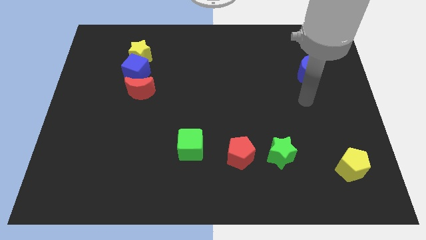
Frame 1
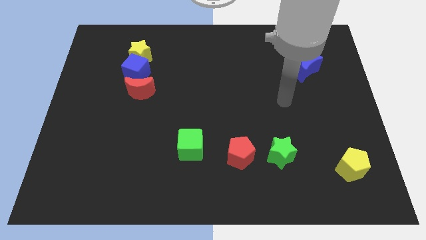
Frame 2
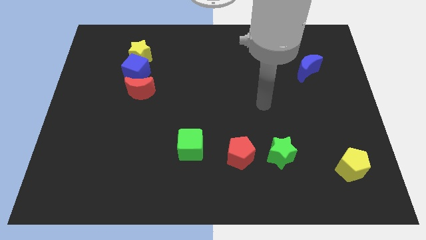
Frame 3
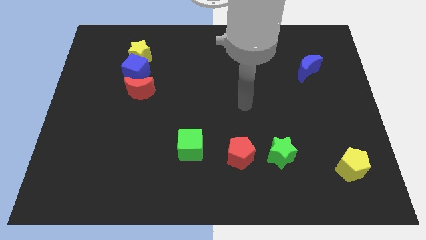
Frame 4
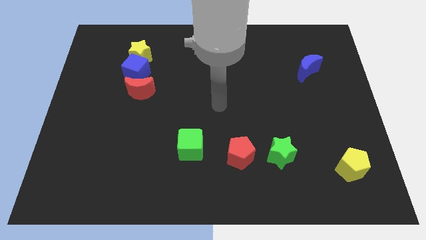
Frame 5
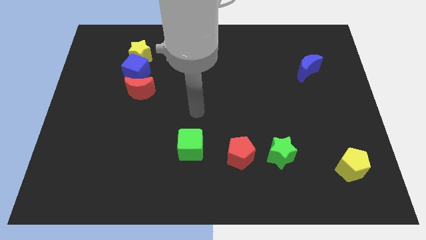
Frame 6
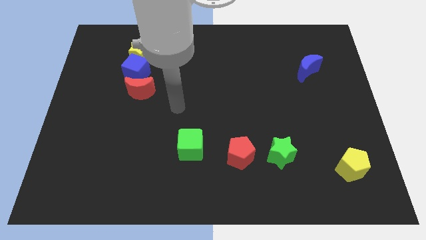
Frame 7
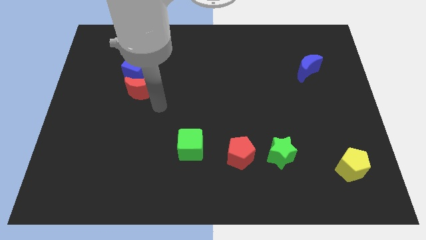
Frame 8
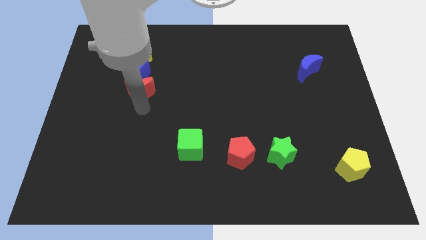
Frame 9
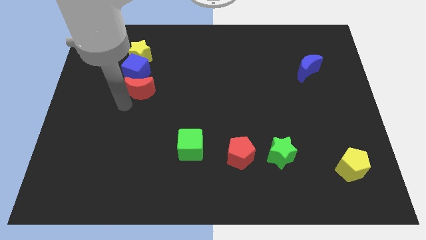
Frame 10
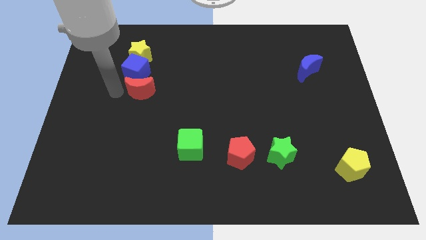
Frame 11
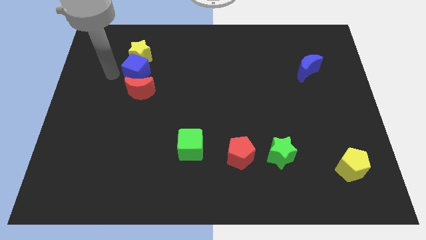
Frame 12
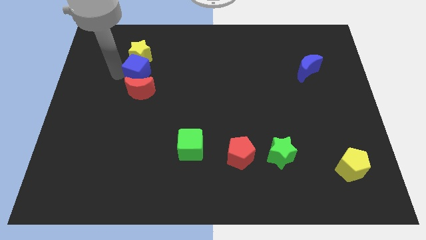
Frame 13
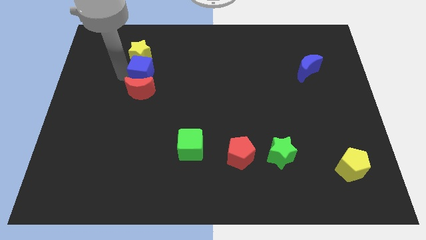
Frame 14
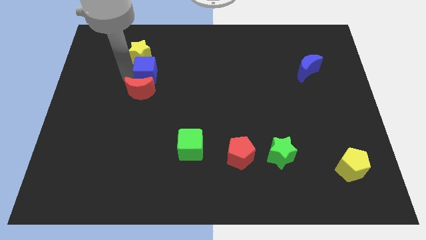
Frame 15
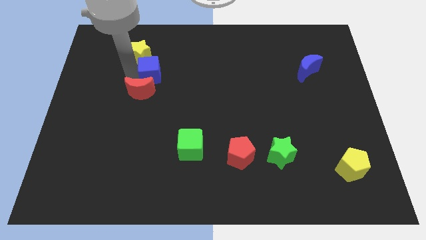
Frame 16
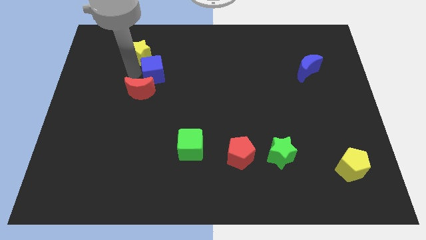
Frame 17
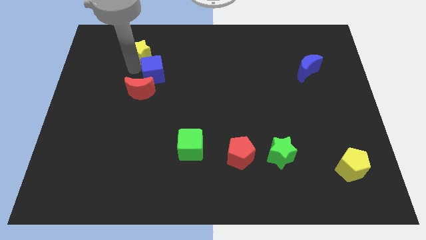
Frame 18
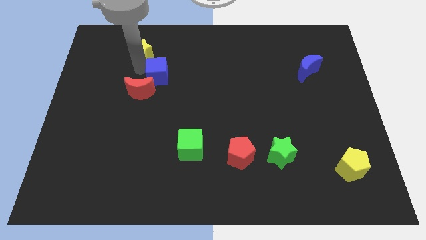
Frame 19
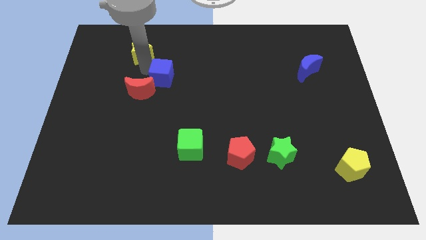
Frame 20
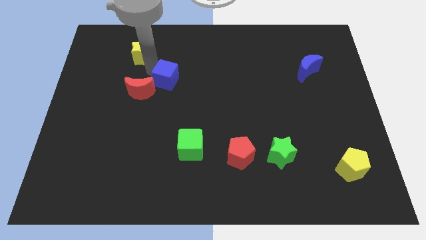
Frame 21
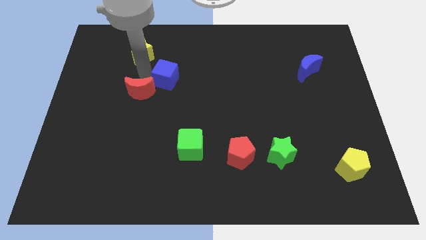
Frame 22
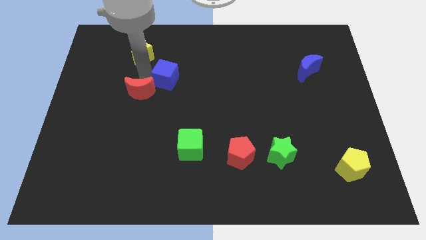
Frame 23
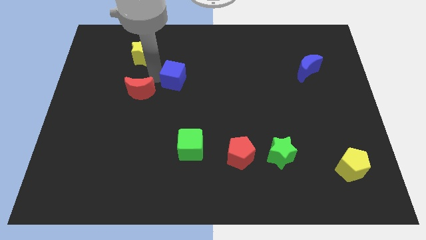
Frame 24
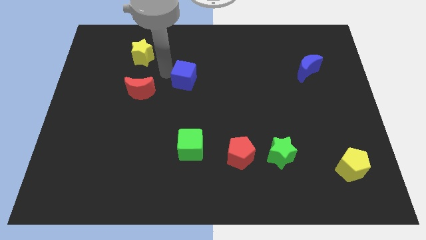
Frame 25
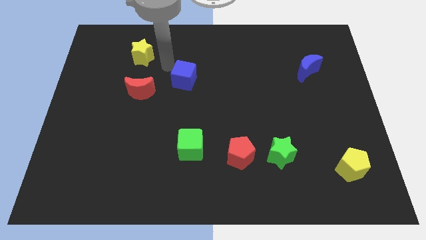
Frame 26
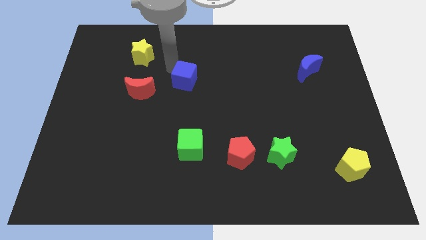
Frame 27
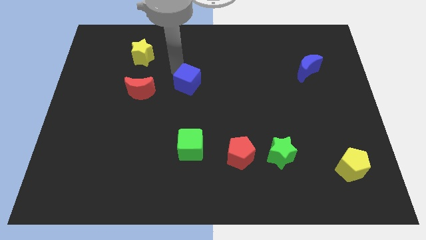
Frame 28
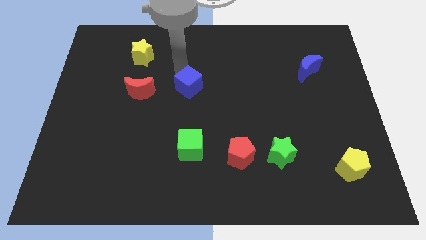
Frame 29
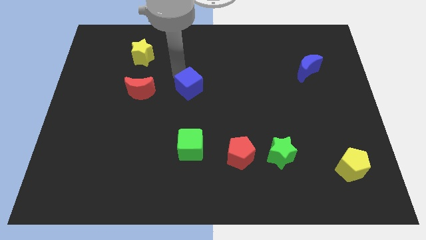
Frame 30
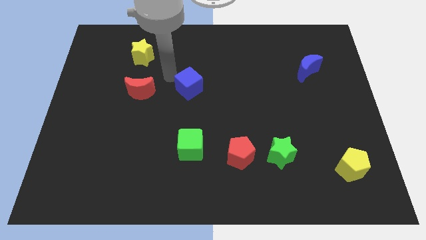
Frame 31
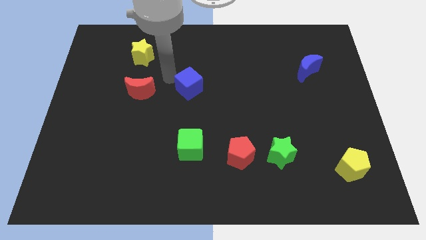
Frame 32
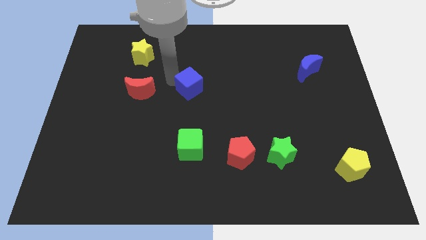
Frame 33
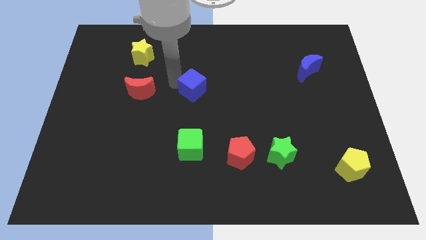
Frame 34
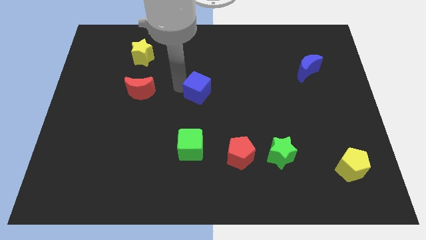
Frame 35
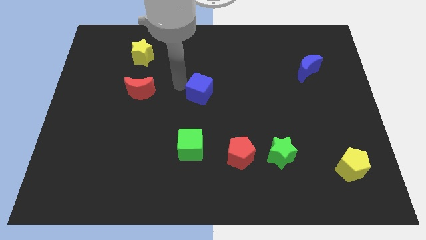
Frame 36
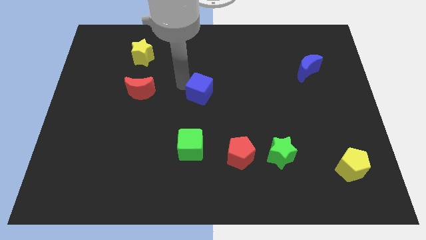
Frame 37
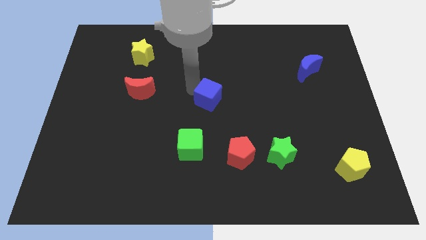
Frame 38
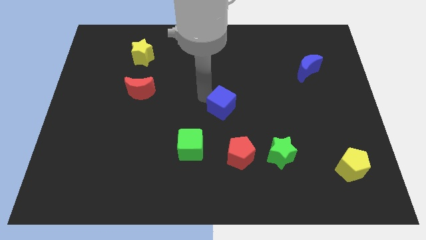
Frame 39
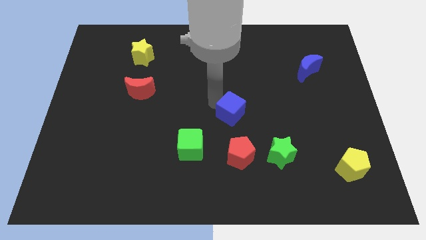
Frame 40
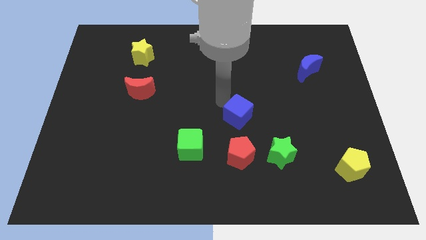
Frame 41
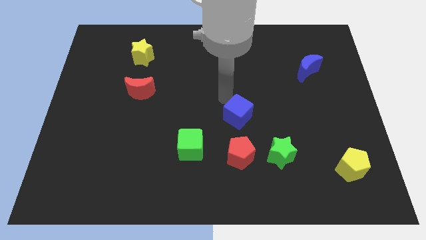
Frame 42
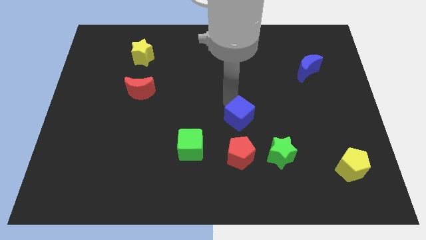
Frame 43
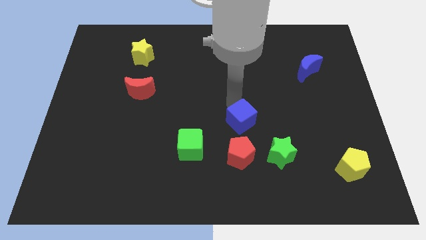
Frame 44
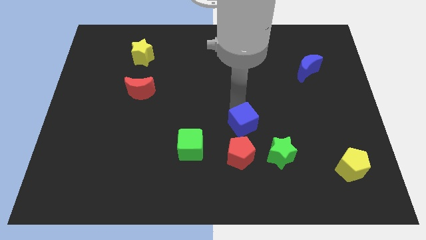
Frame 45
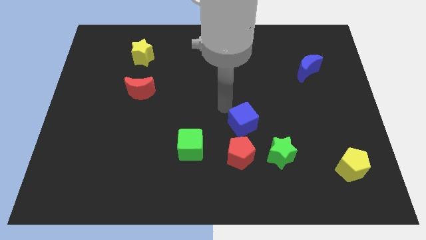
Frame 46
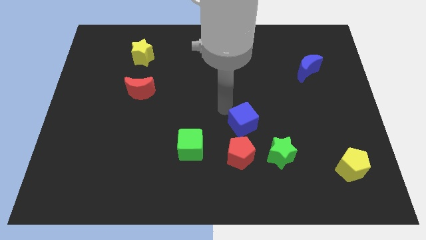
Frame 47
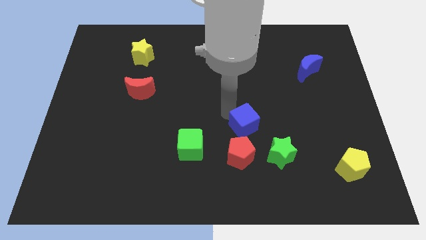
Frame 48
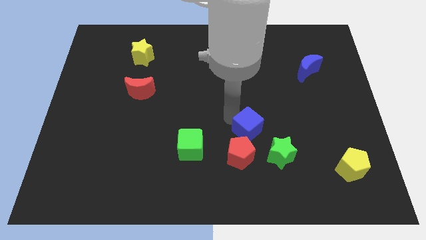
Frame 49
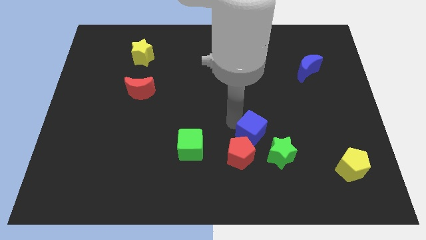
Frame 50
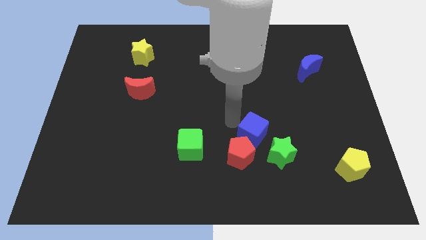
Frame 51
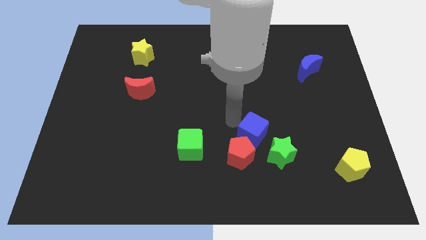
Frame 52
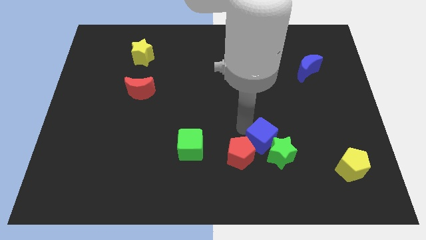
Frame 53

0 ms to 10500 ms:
slide the blue cube next to the green star

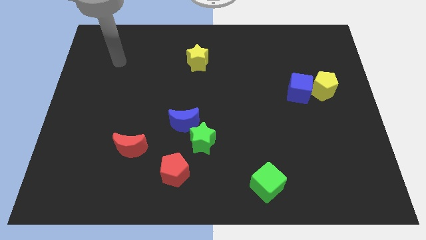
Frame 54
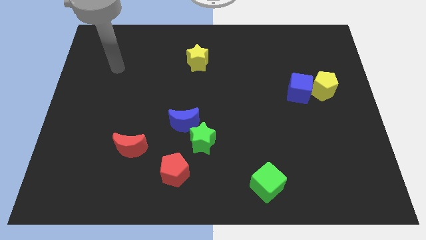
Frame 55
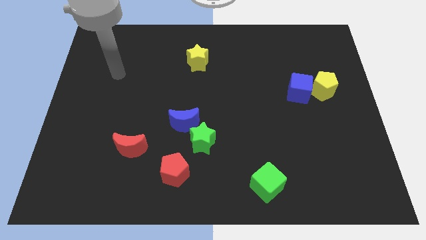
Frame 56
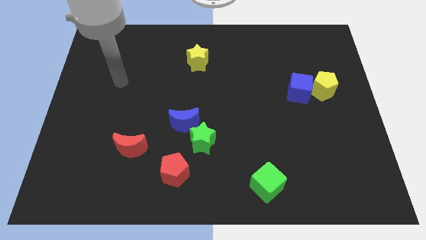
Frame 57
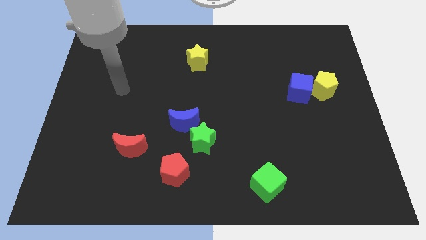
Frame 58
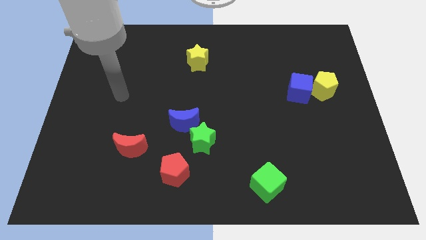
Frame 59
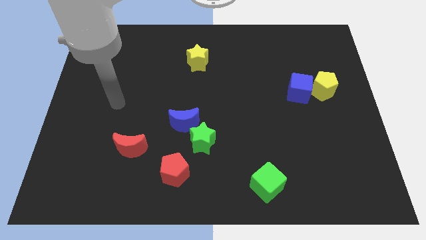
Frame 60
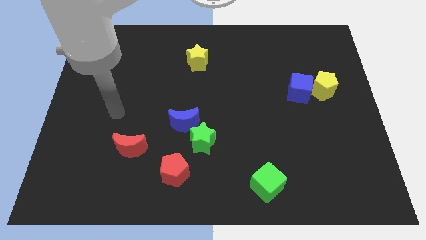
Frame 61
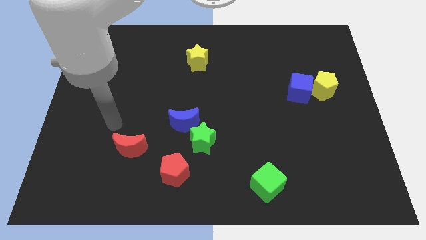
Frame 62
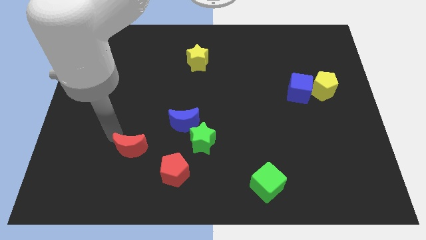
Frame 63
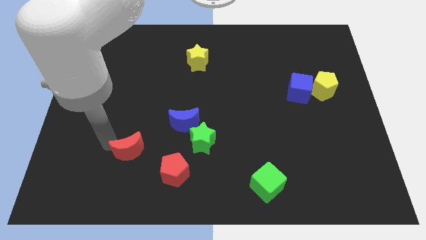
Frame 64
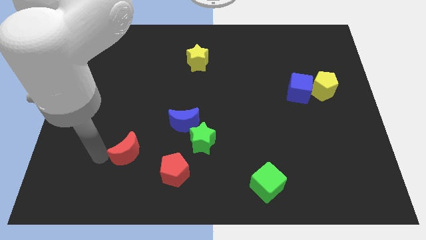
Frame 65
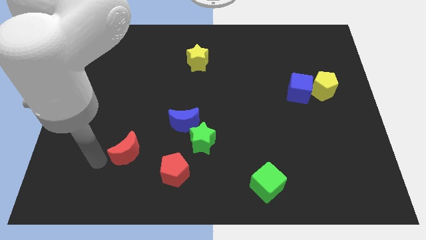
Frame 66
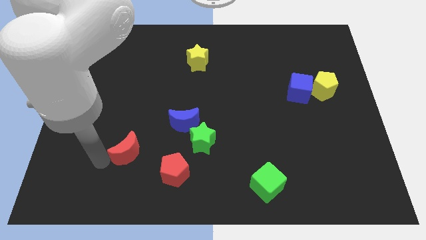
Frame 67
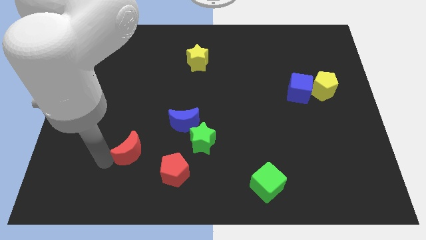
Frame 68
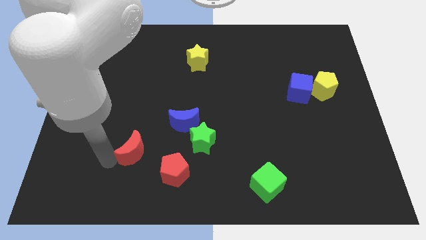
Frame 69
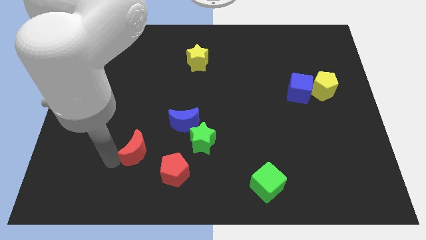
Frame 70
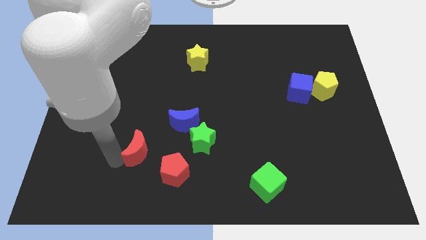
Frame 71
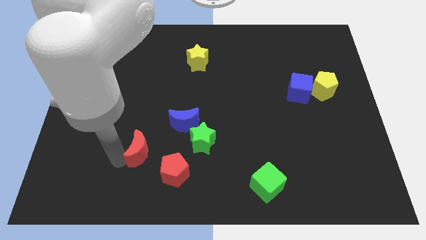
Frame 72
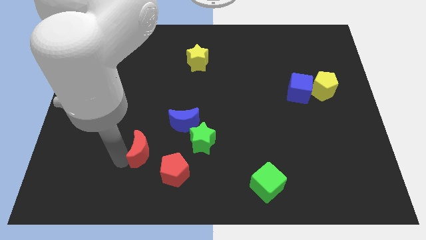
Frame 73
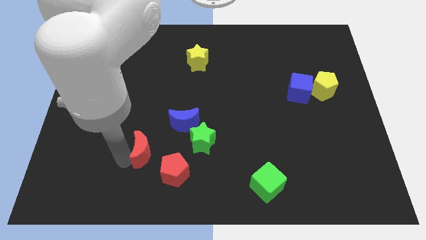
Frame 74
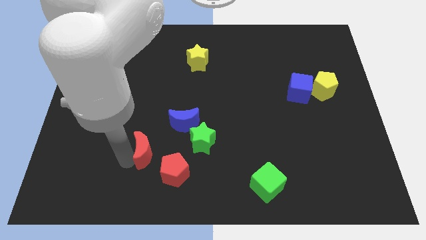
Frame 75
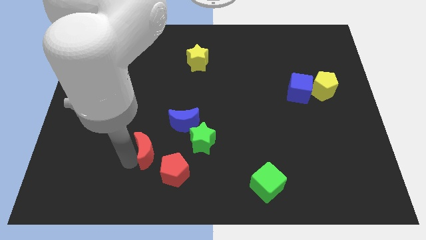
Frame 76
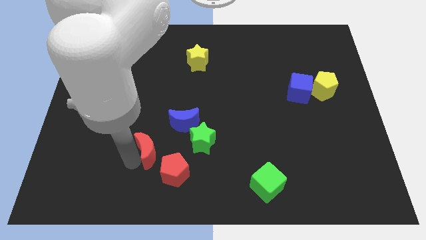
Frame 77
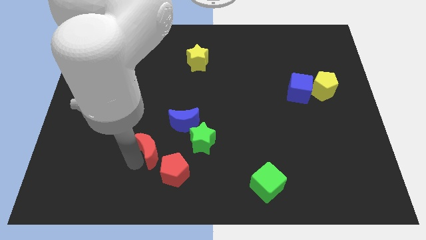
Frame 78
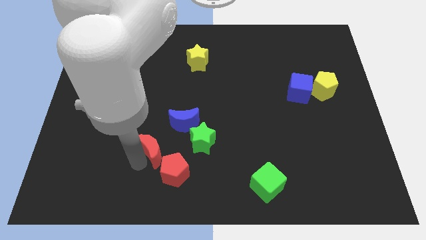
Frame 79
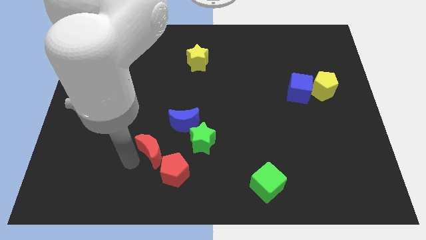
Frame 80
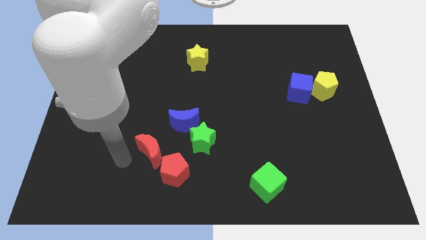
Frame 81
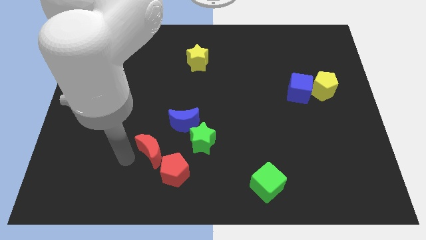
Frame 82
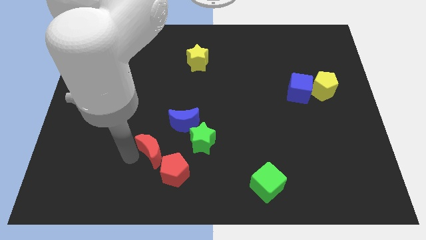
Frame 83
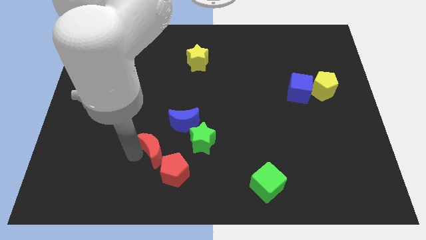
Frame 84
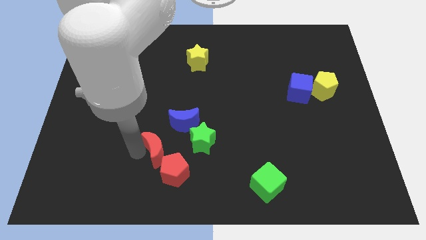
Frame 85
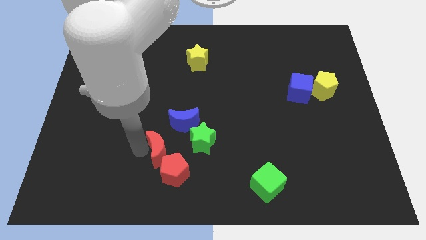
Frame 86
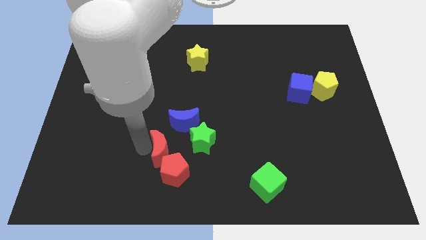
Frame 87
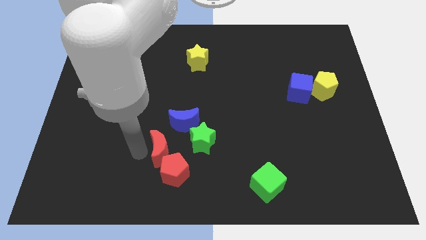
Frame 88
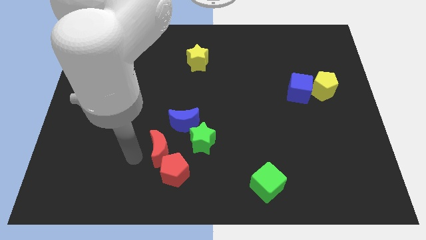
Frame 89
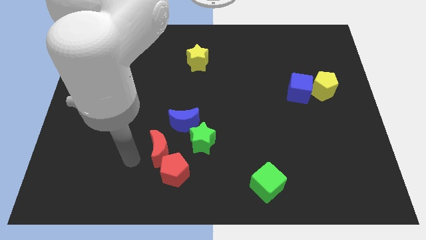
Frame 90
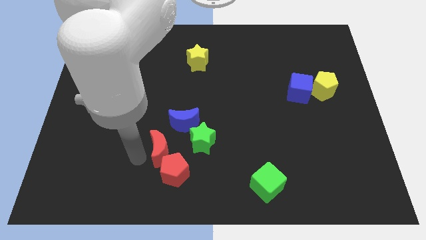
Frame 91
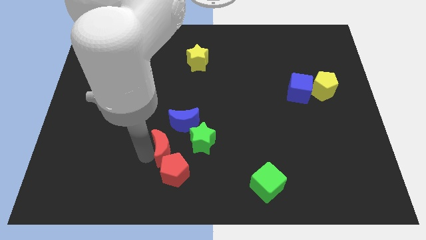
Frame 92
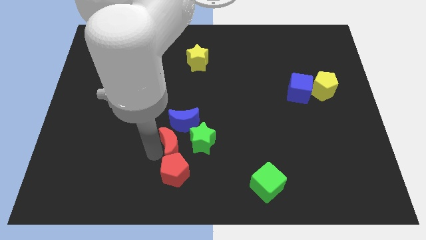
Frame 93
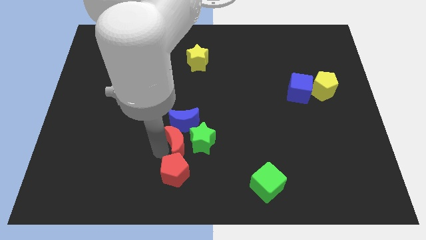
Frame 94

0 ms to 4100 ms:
slide the red moon to the green star
